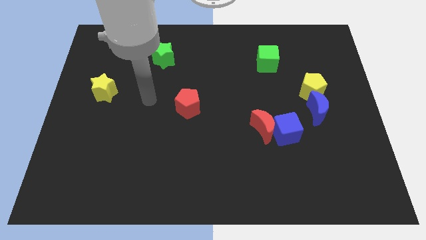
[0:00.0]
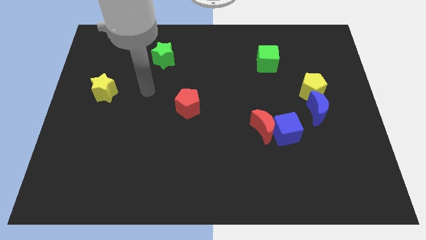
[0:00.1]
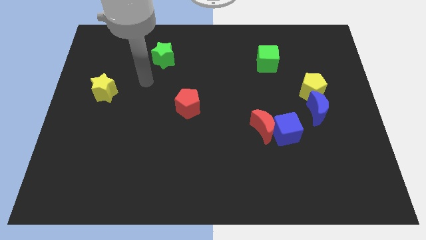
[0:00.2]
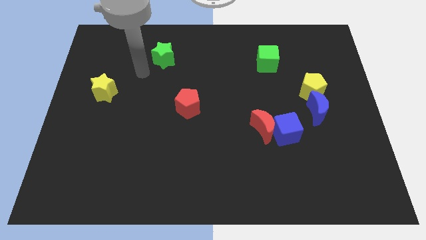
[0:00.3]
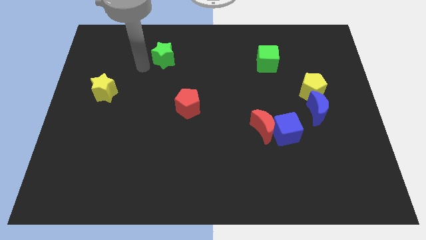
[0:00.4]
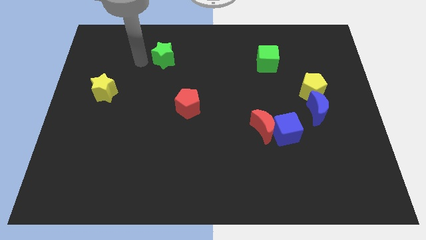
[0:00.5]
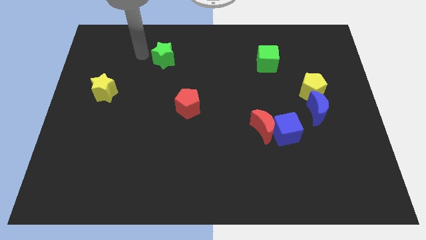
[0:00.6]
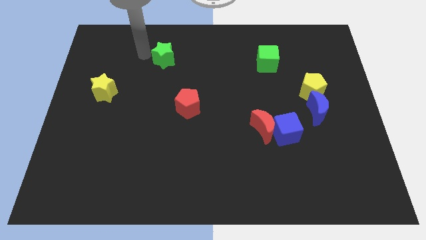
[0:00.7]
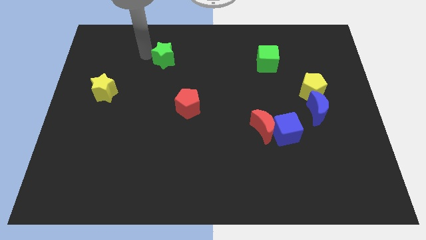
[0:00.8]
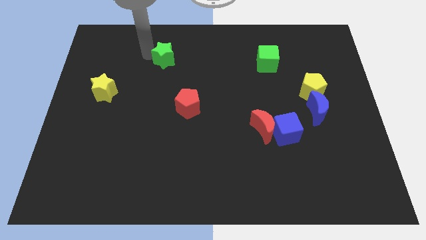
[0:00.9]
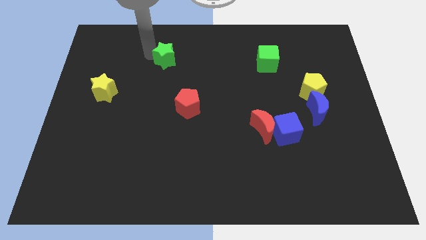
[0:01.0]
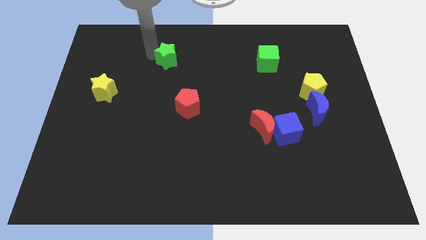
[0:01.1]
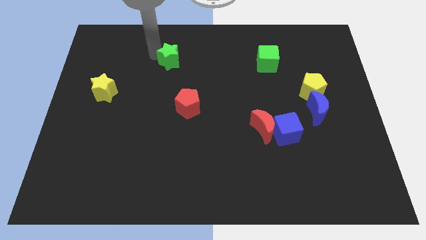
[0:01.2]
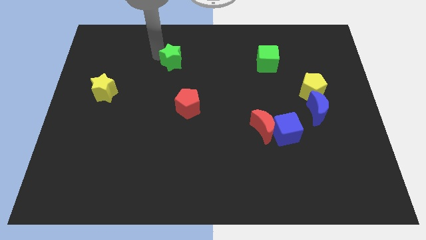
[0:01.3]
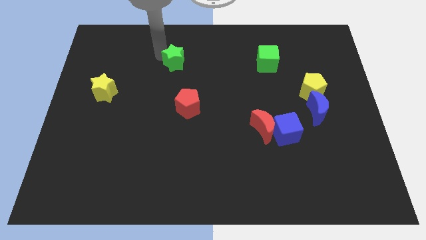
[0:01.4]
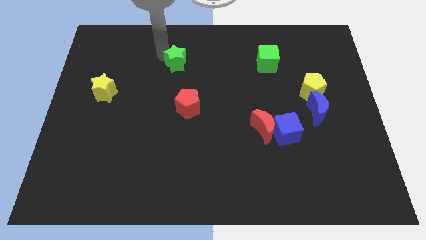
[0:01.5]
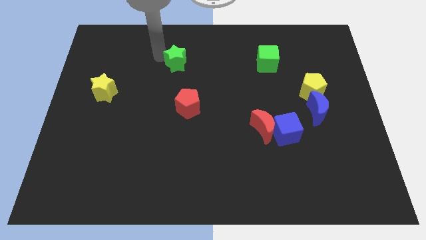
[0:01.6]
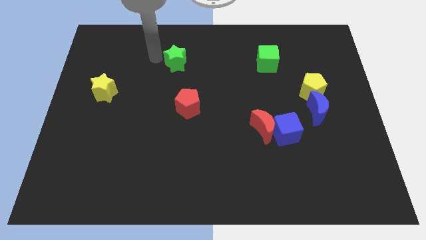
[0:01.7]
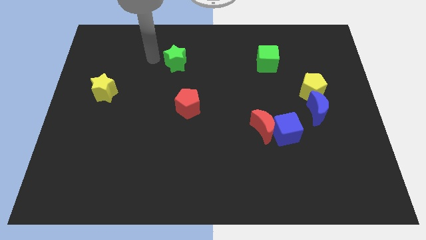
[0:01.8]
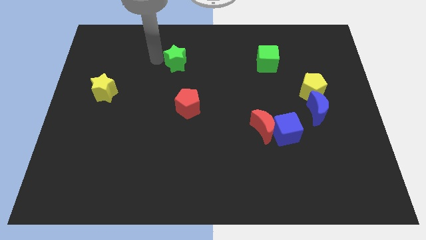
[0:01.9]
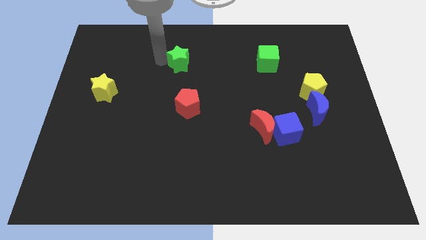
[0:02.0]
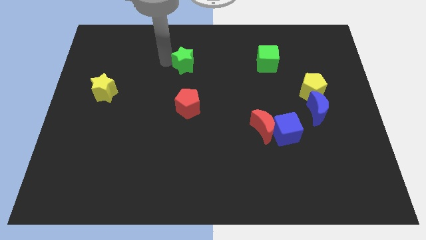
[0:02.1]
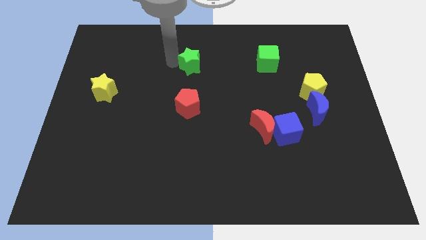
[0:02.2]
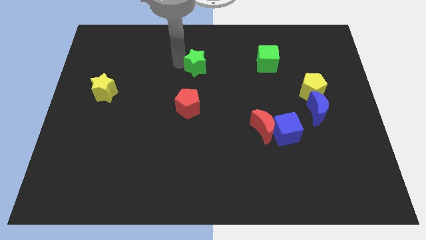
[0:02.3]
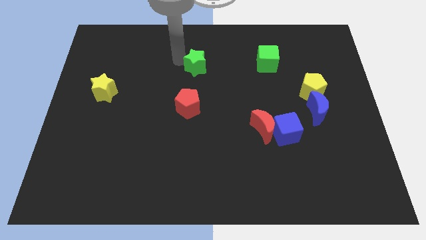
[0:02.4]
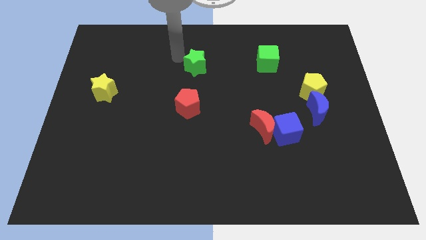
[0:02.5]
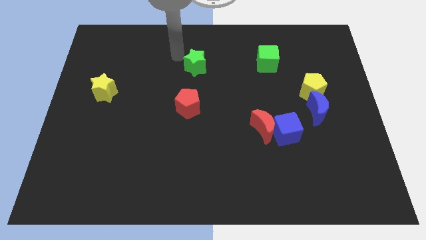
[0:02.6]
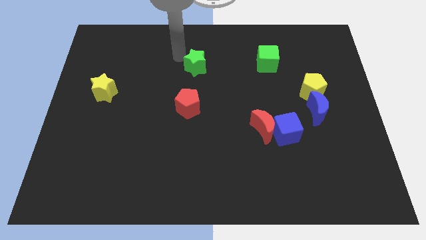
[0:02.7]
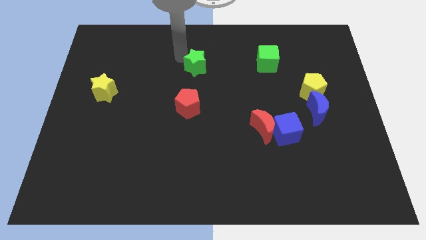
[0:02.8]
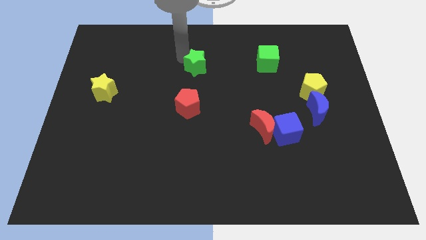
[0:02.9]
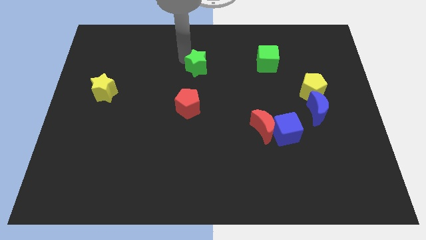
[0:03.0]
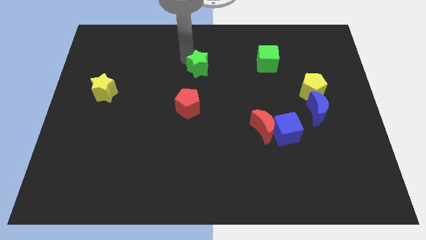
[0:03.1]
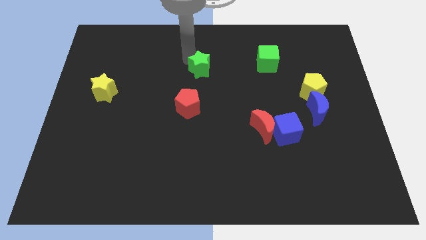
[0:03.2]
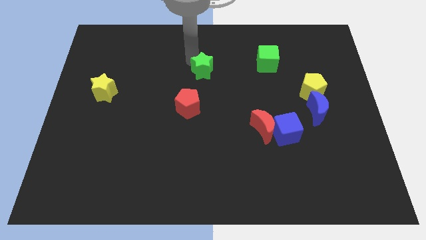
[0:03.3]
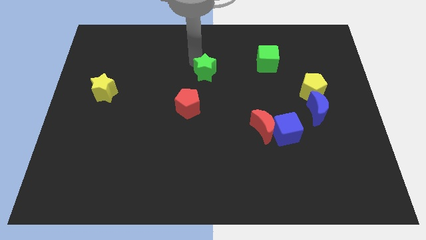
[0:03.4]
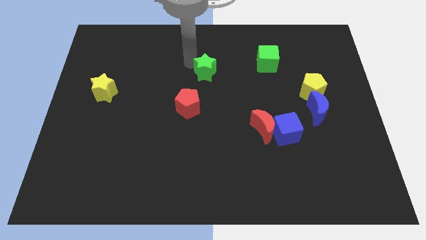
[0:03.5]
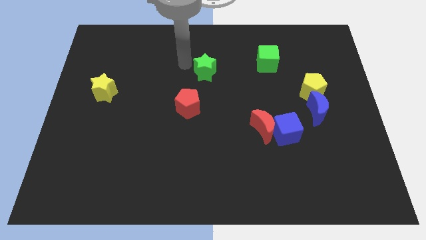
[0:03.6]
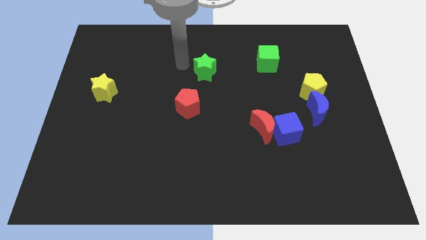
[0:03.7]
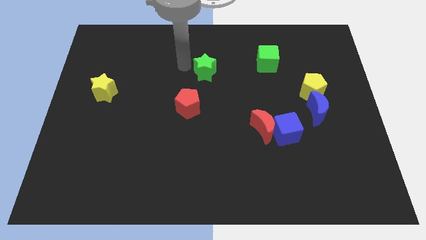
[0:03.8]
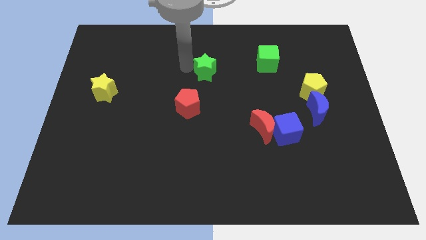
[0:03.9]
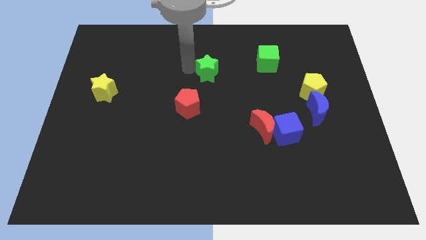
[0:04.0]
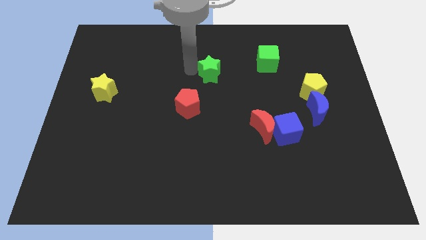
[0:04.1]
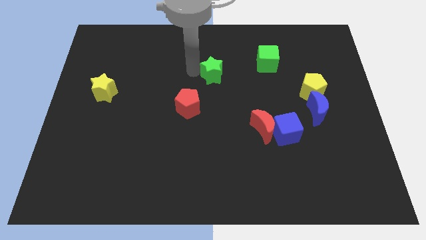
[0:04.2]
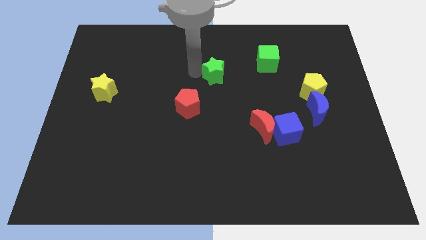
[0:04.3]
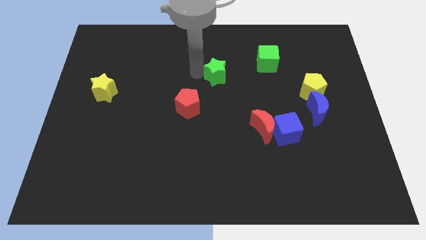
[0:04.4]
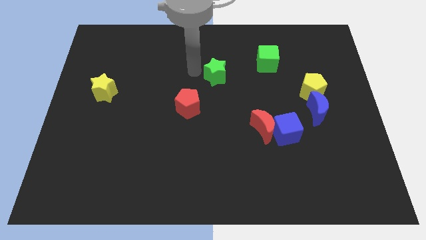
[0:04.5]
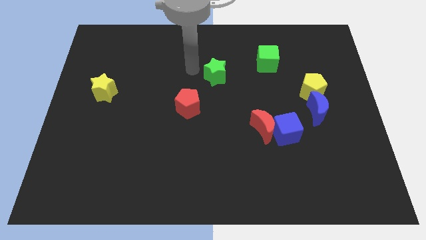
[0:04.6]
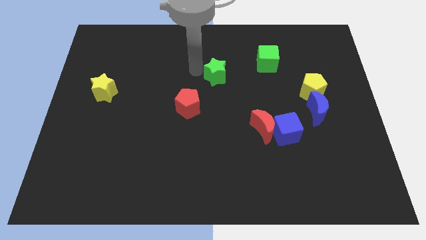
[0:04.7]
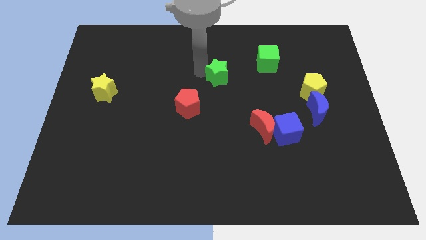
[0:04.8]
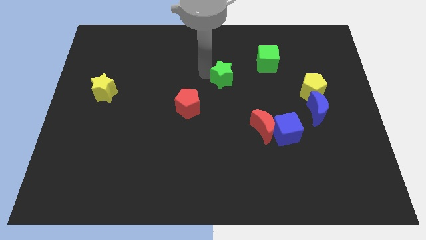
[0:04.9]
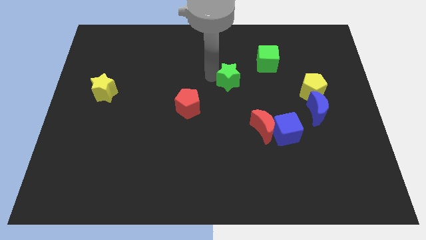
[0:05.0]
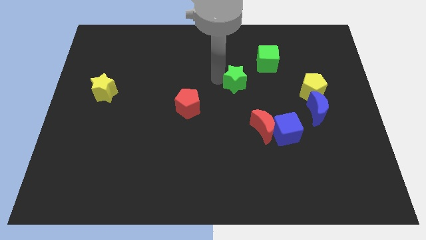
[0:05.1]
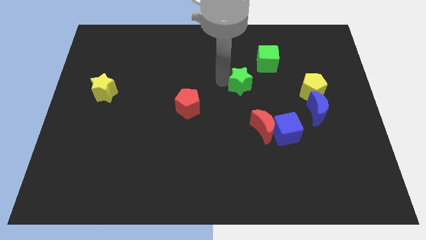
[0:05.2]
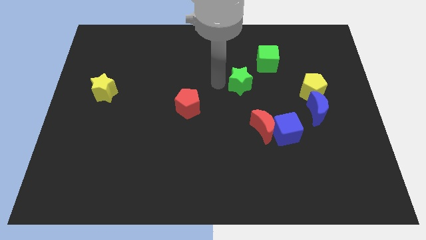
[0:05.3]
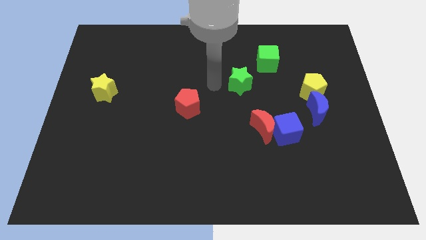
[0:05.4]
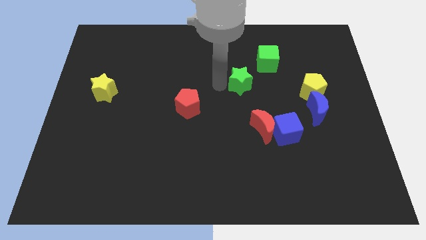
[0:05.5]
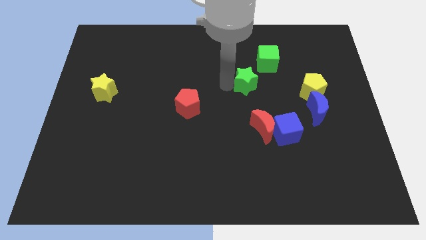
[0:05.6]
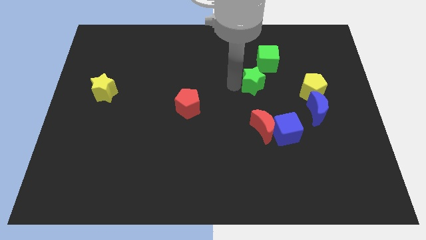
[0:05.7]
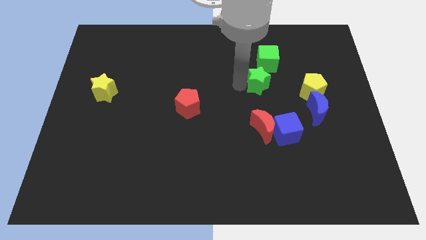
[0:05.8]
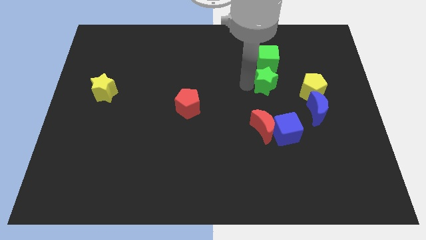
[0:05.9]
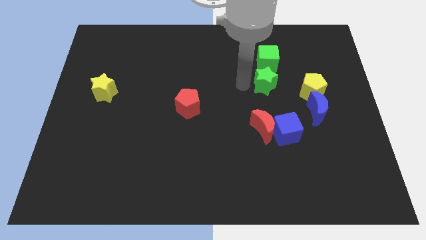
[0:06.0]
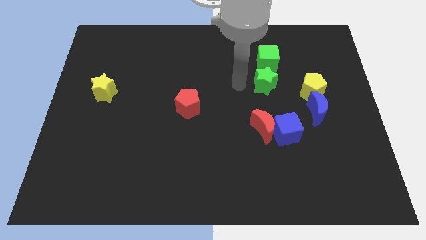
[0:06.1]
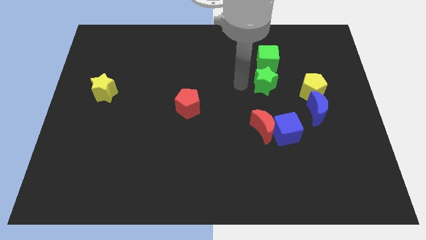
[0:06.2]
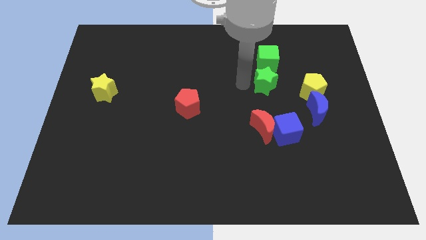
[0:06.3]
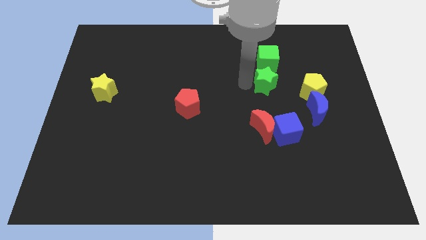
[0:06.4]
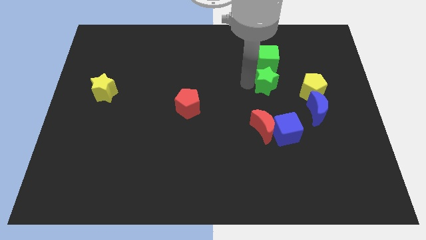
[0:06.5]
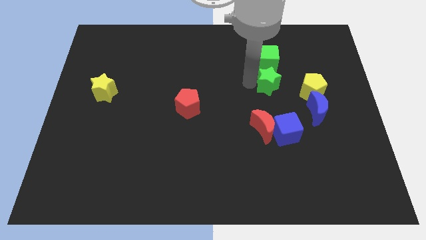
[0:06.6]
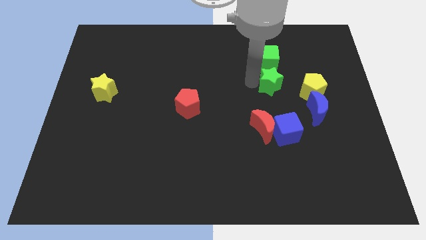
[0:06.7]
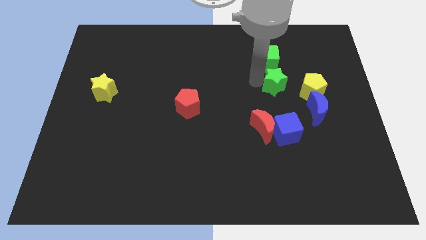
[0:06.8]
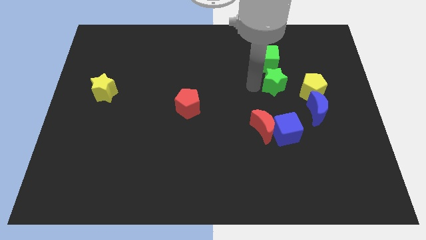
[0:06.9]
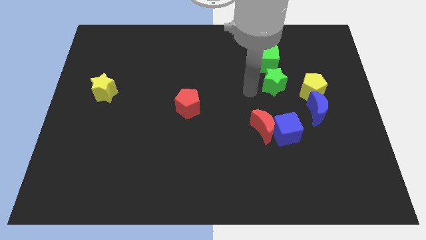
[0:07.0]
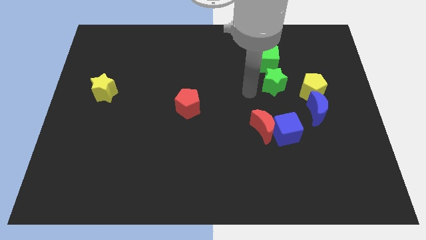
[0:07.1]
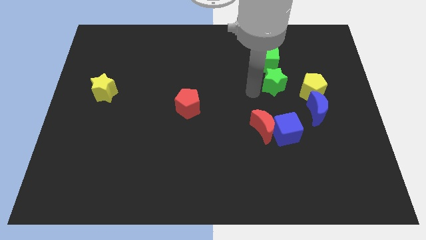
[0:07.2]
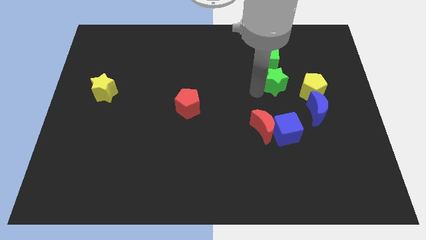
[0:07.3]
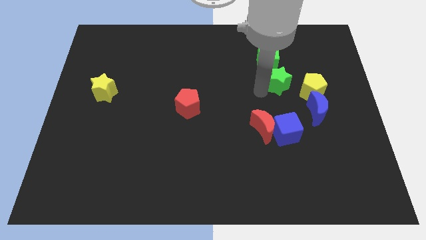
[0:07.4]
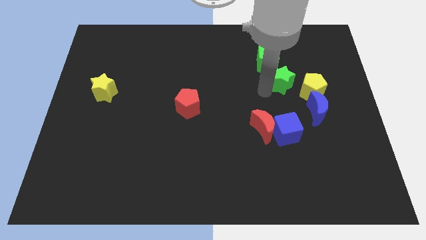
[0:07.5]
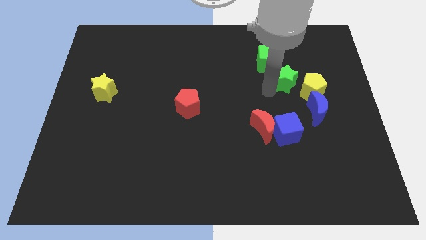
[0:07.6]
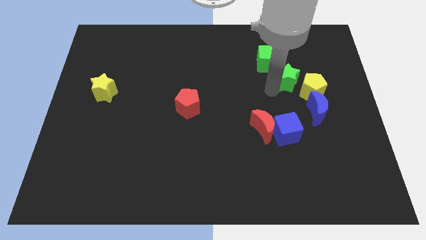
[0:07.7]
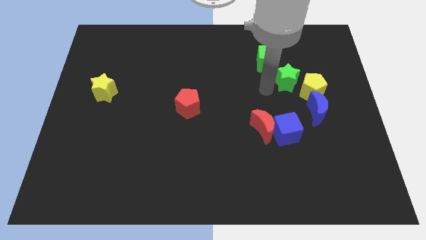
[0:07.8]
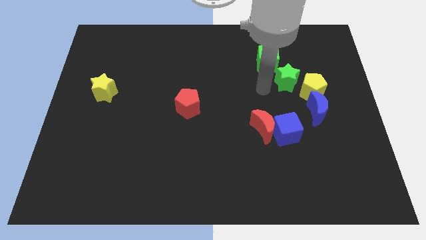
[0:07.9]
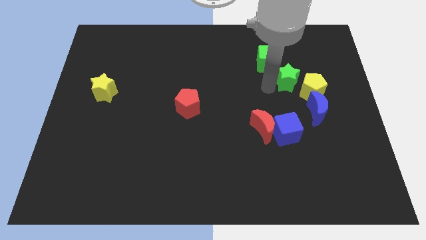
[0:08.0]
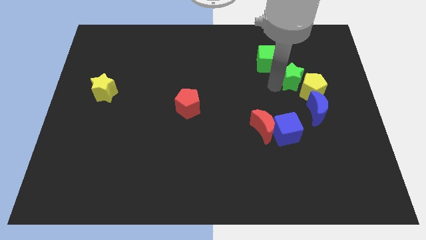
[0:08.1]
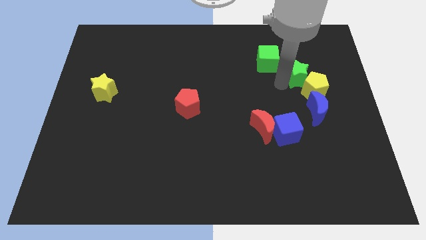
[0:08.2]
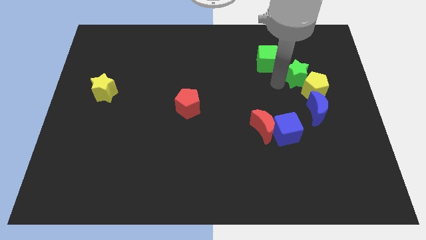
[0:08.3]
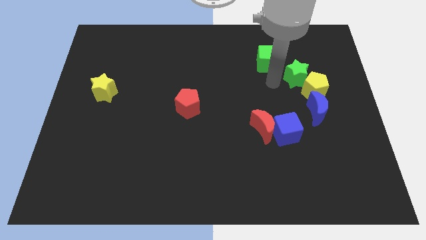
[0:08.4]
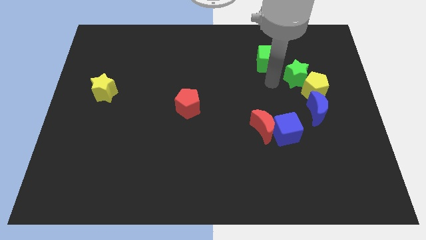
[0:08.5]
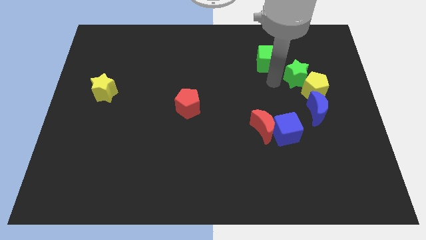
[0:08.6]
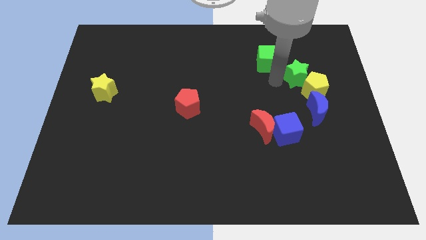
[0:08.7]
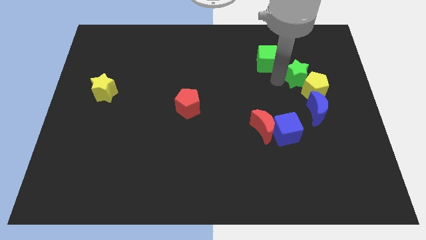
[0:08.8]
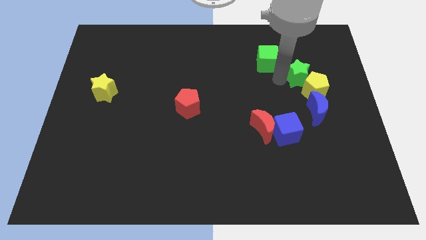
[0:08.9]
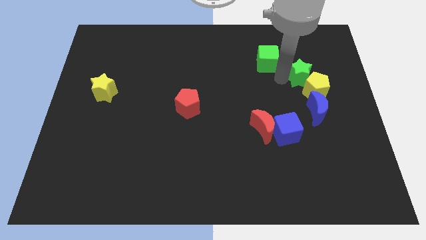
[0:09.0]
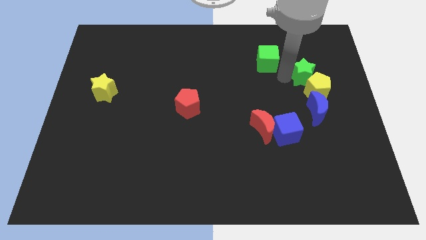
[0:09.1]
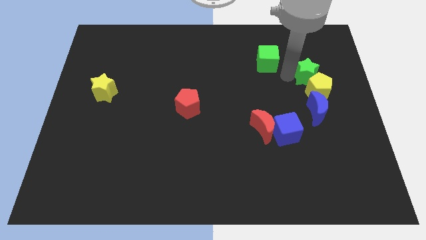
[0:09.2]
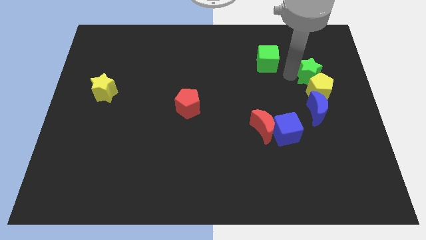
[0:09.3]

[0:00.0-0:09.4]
slide the green star diagonally up and to the right of the yellow pentagon
